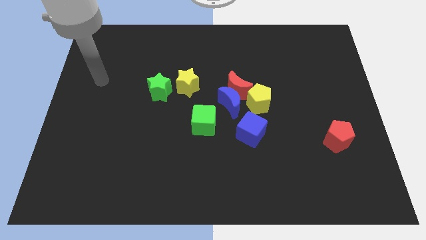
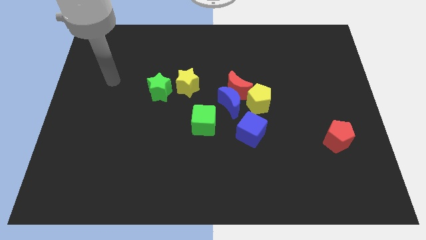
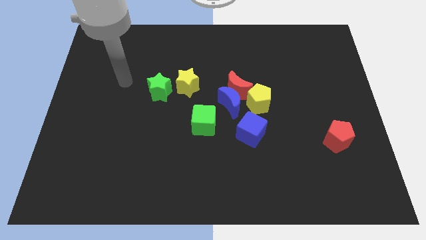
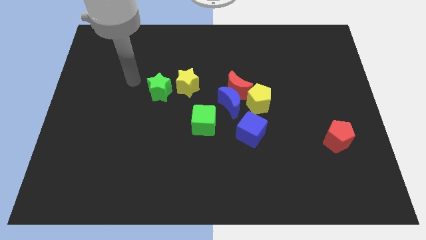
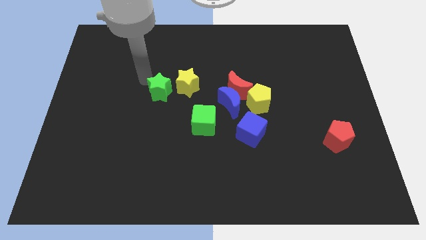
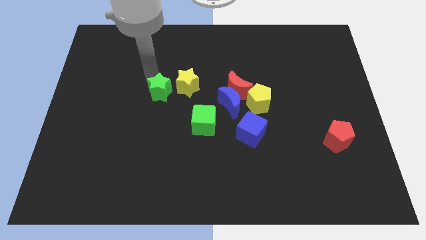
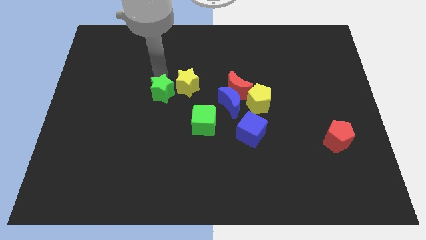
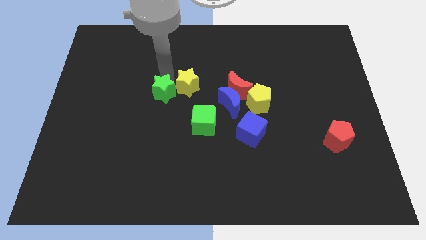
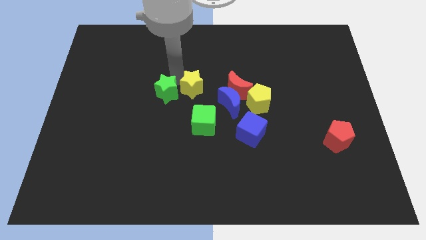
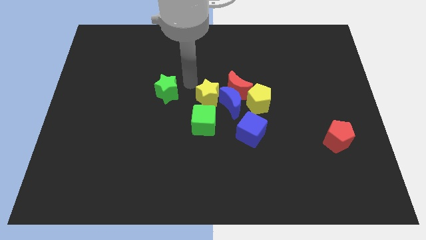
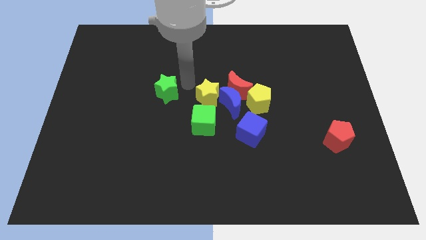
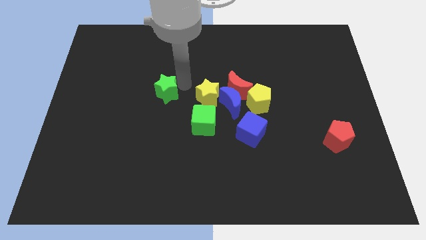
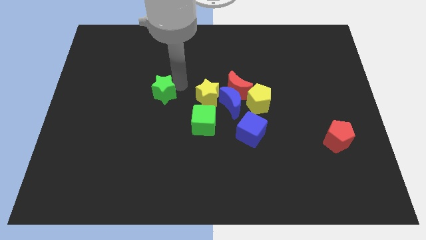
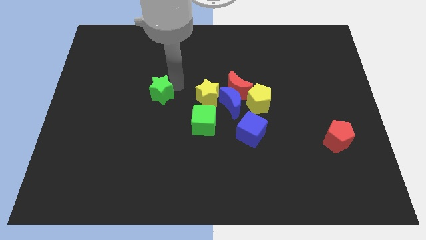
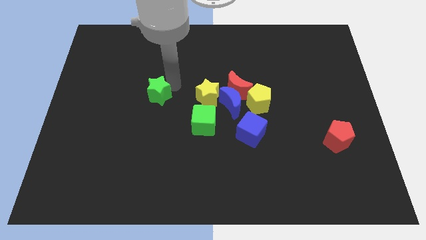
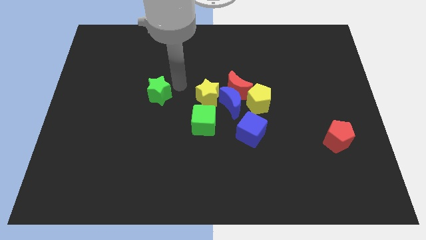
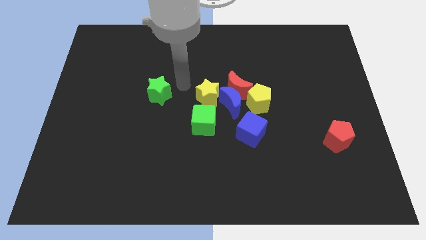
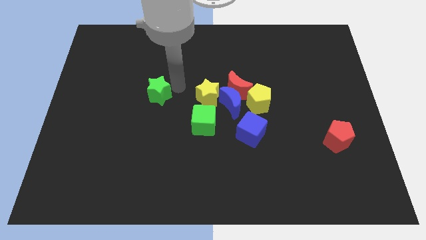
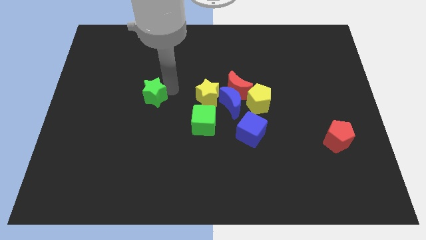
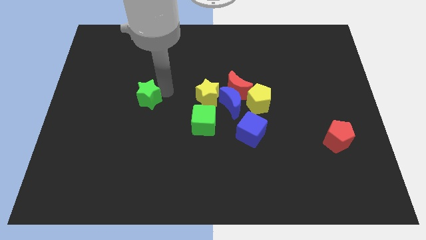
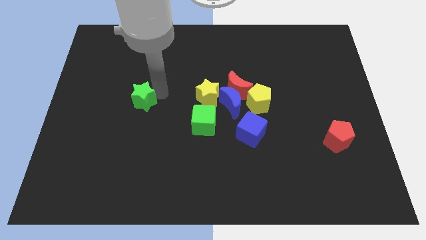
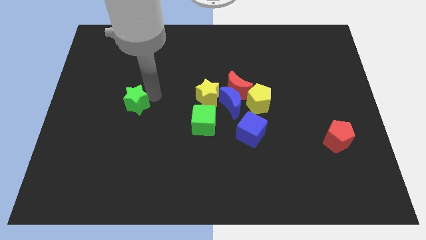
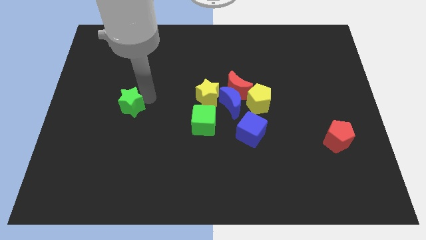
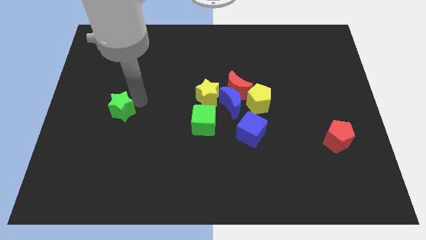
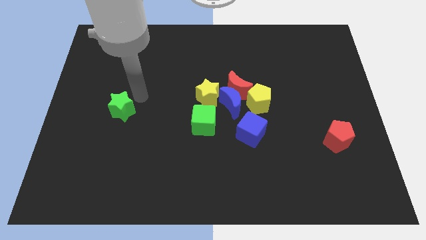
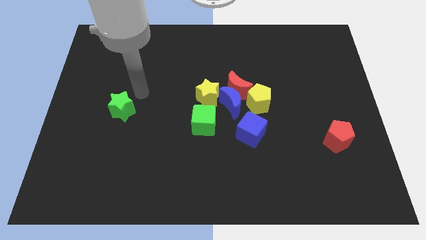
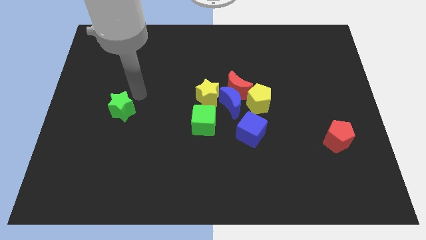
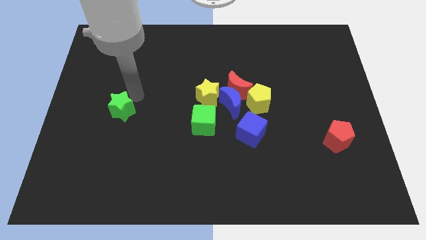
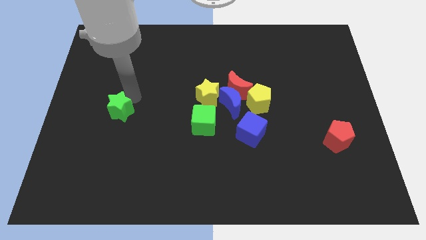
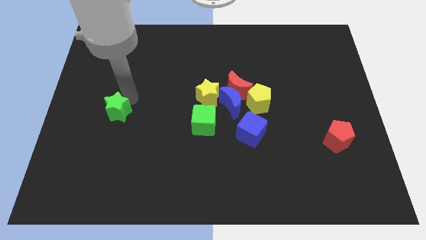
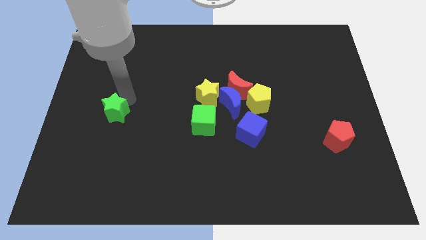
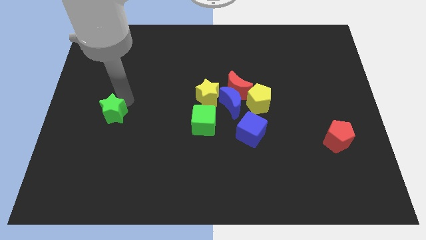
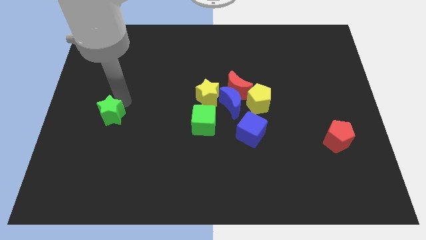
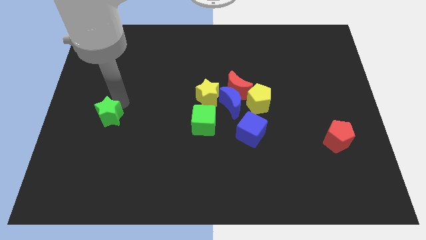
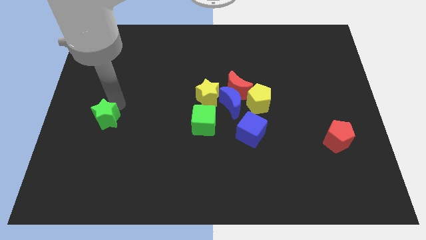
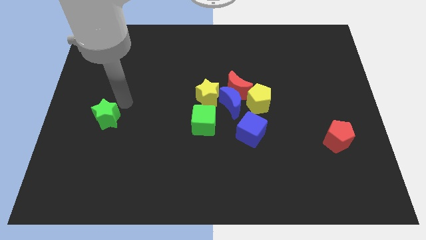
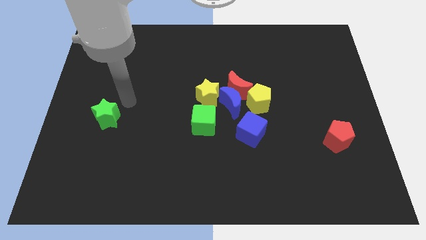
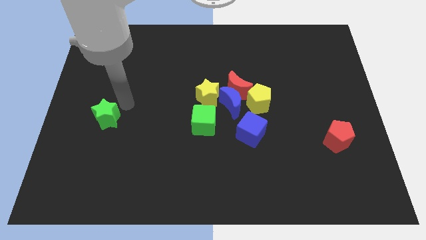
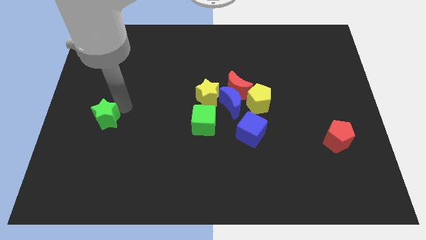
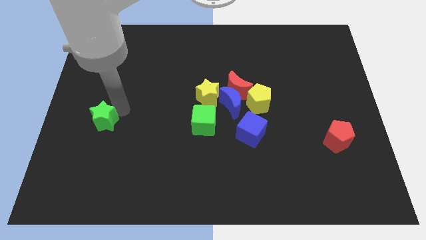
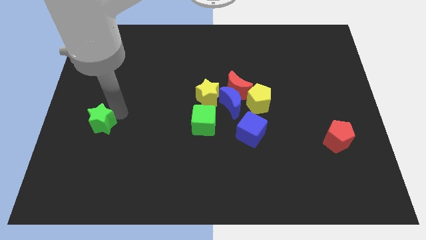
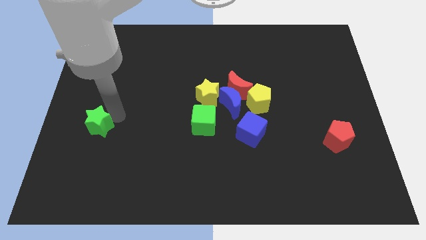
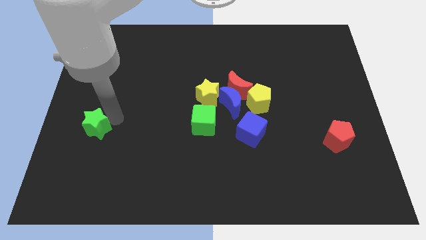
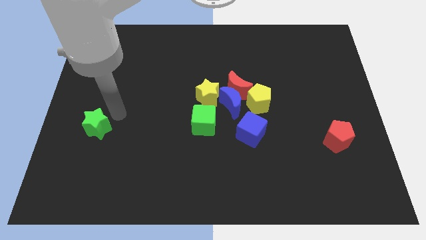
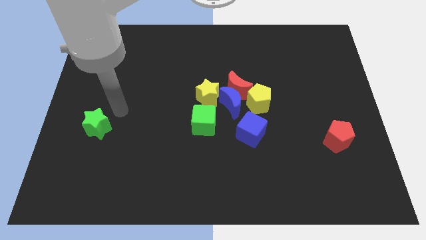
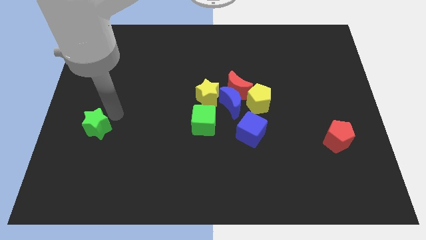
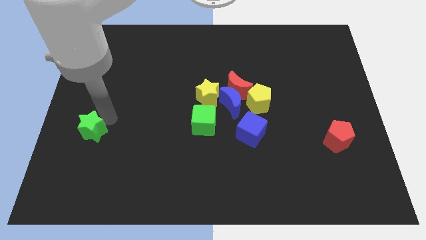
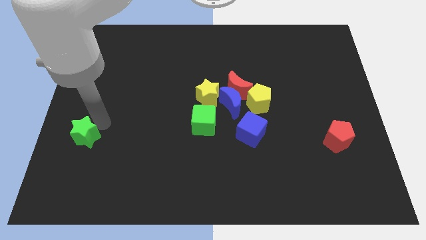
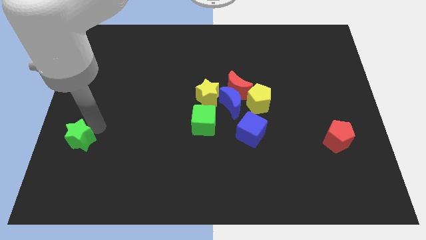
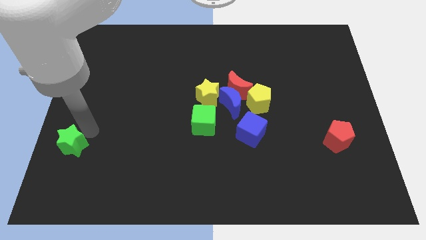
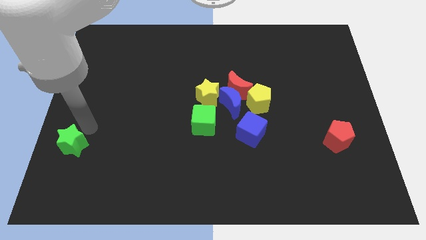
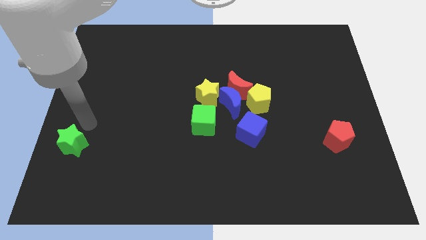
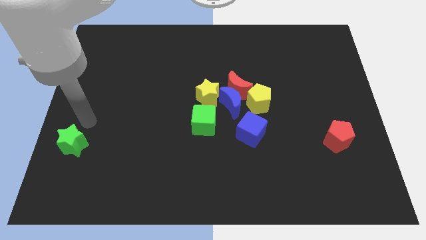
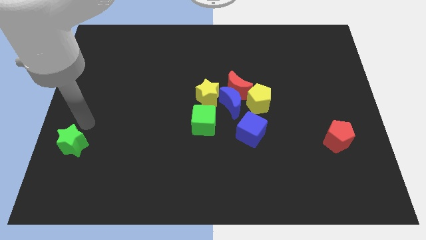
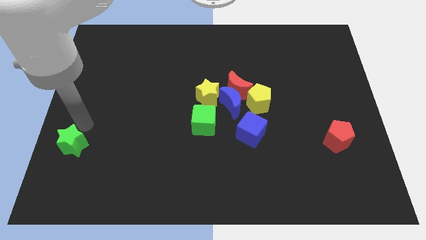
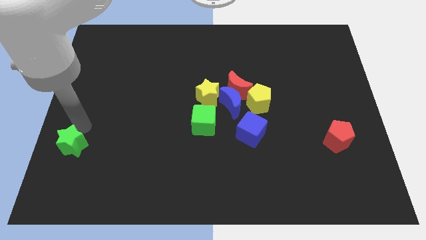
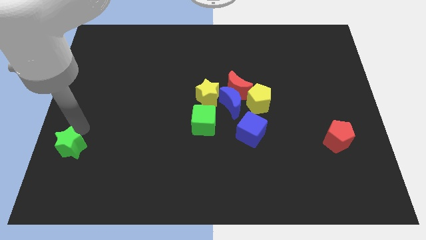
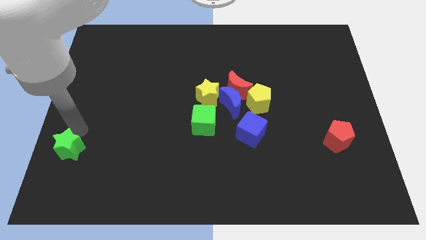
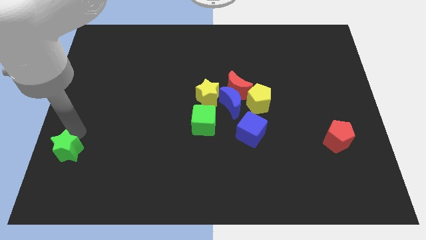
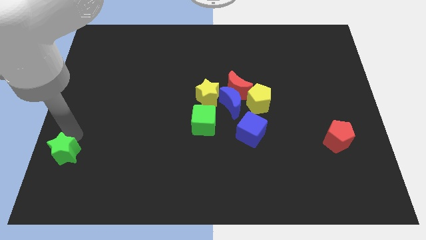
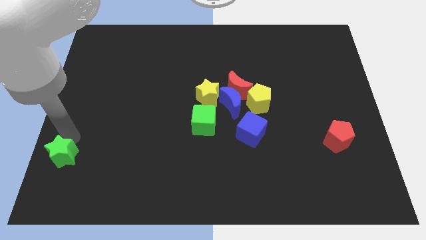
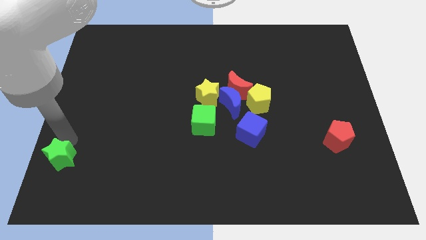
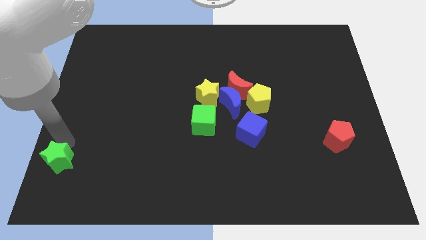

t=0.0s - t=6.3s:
push the green star to the bottom left of the board
